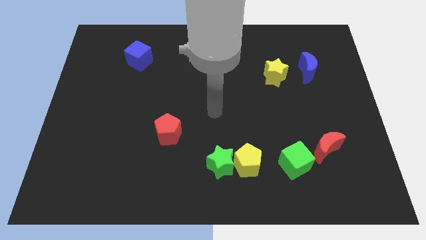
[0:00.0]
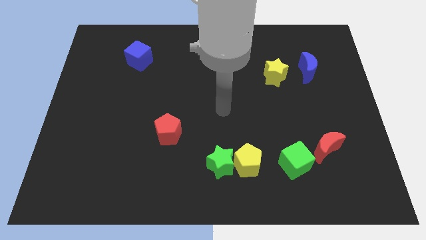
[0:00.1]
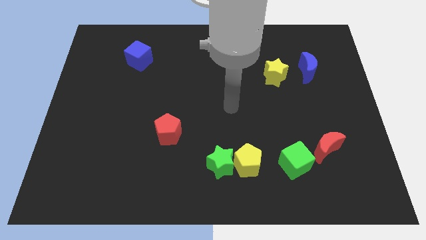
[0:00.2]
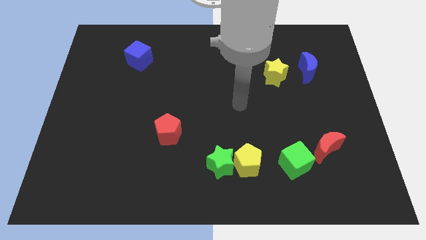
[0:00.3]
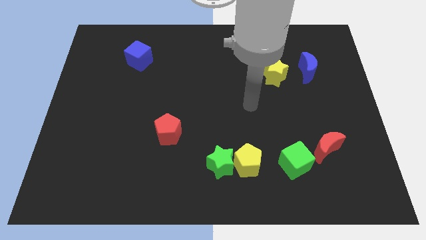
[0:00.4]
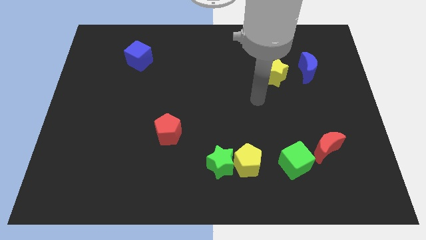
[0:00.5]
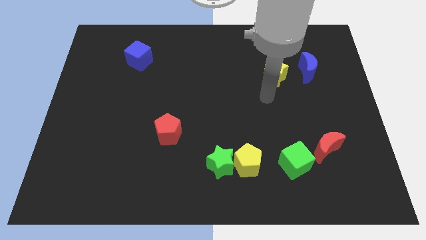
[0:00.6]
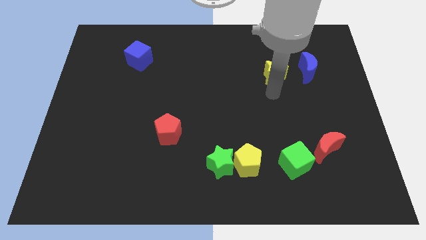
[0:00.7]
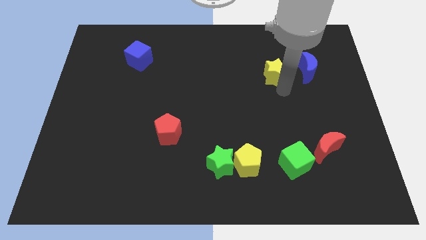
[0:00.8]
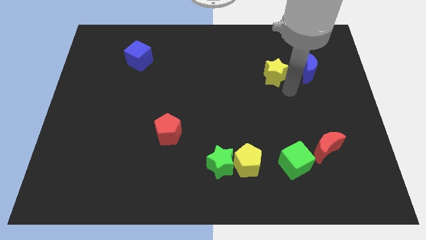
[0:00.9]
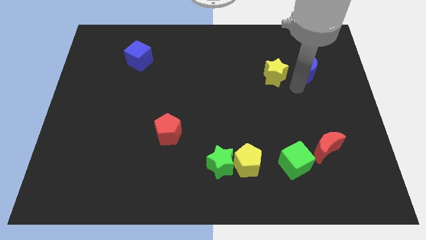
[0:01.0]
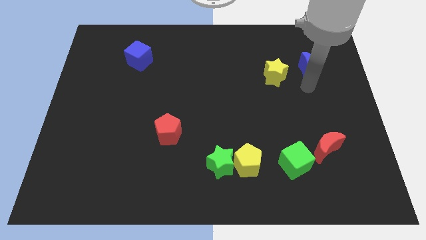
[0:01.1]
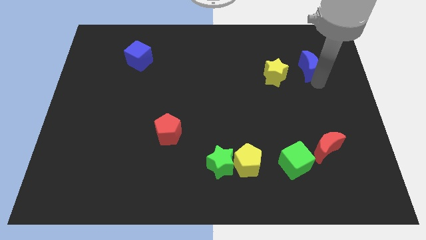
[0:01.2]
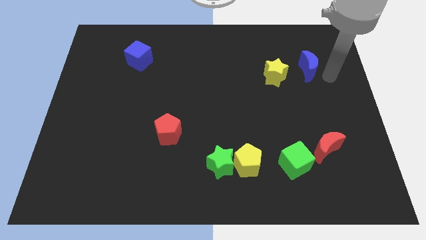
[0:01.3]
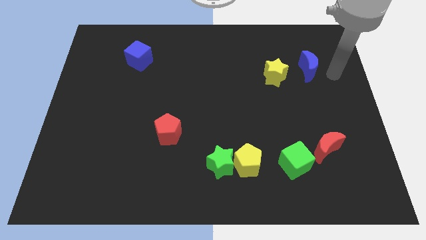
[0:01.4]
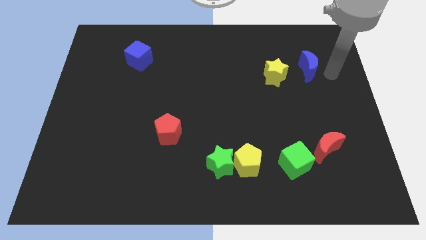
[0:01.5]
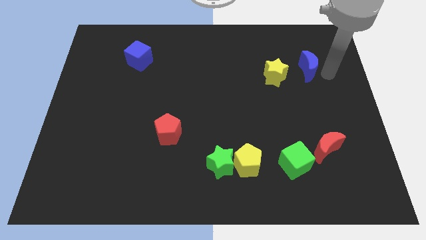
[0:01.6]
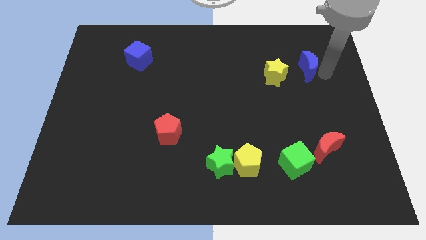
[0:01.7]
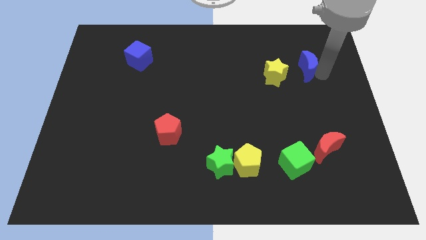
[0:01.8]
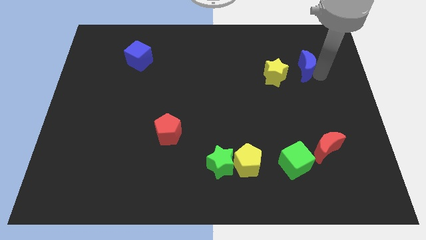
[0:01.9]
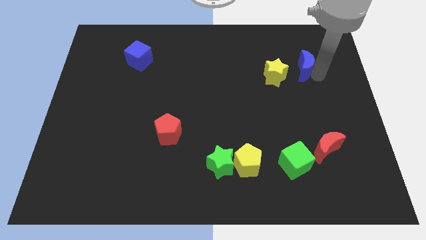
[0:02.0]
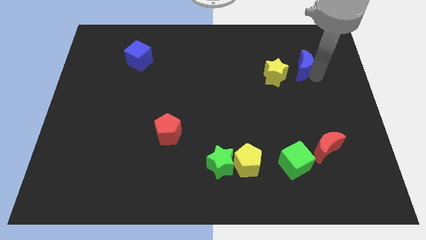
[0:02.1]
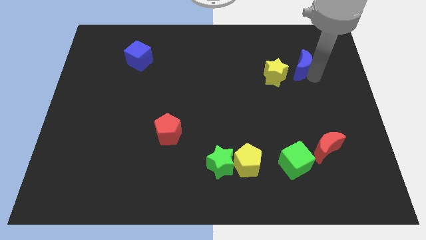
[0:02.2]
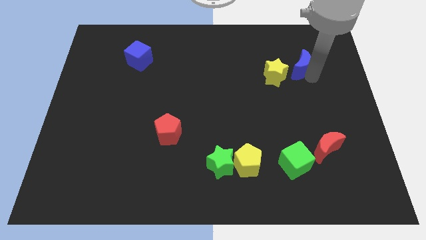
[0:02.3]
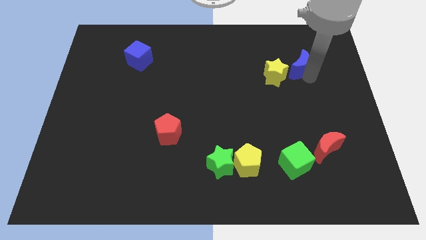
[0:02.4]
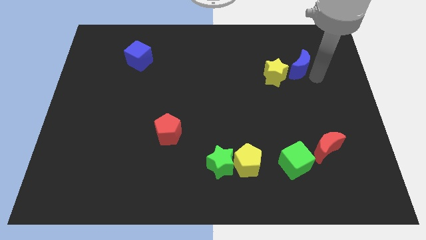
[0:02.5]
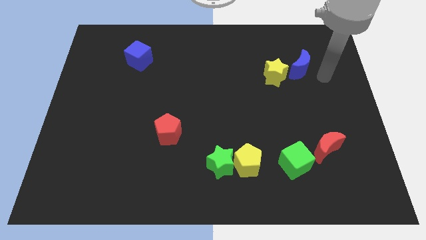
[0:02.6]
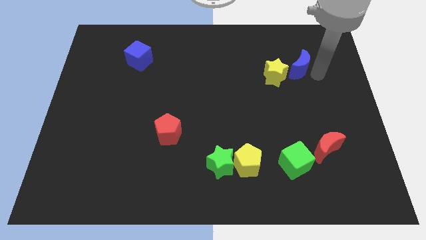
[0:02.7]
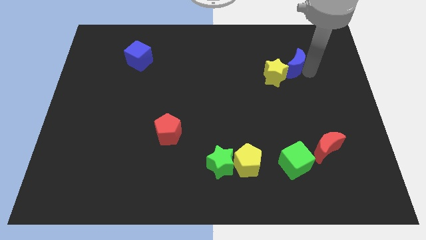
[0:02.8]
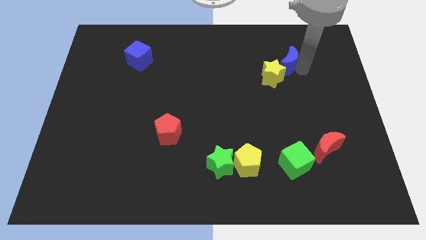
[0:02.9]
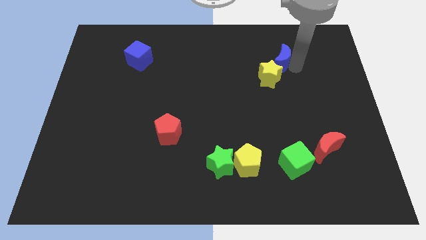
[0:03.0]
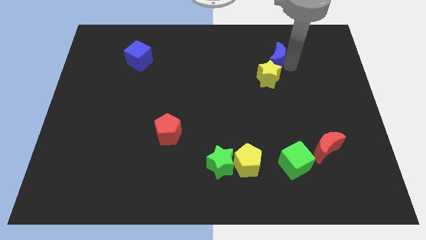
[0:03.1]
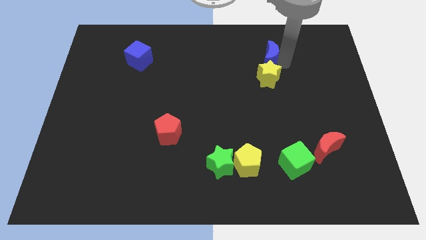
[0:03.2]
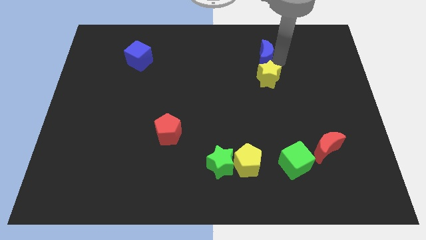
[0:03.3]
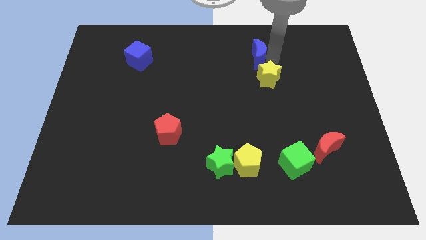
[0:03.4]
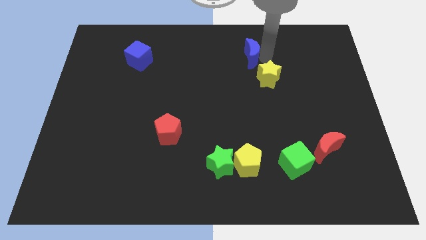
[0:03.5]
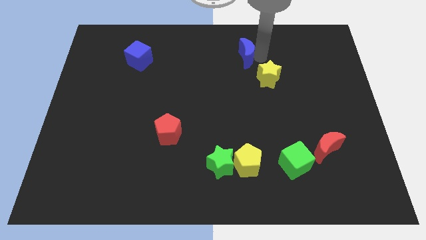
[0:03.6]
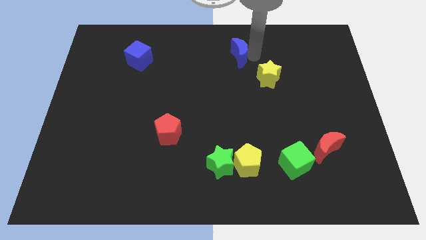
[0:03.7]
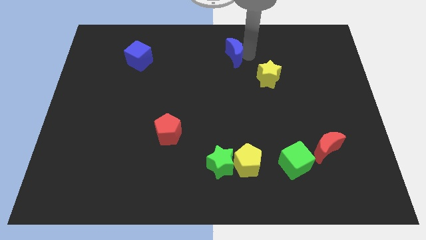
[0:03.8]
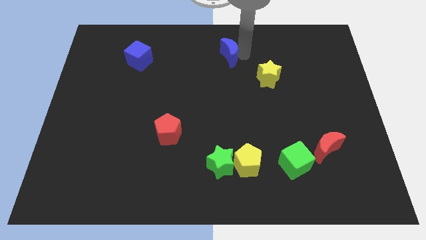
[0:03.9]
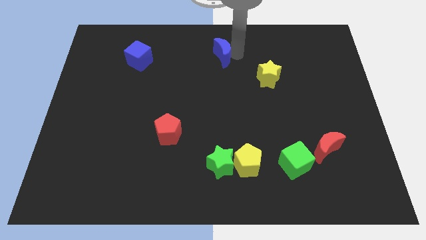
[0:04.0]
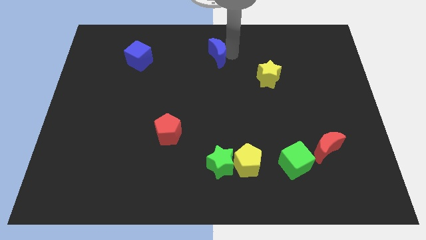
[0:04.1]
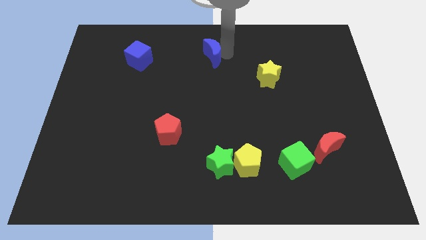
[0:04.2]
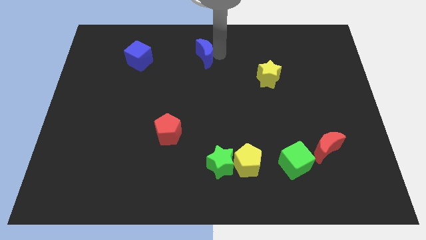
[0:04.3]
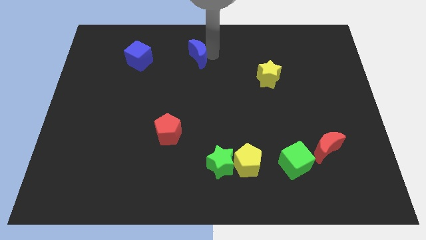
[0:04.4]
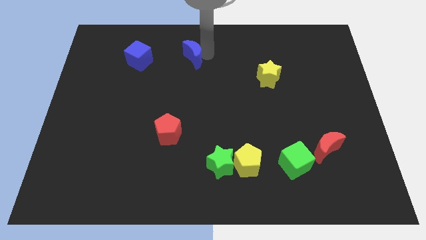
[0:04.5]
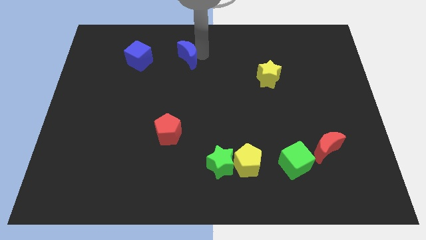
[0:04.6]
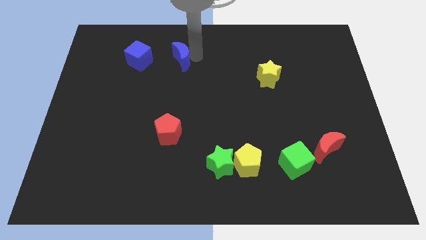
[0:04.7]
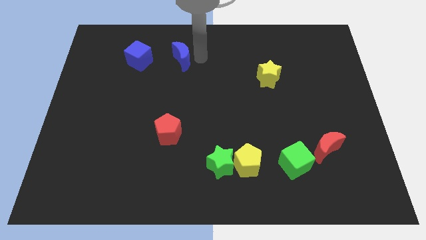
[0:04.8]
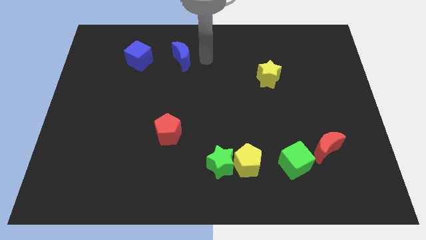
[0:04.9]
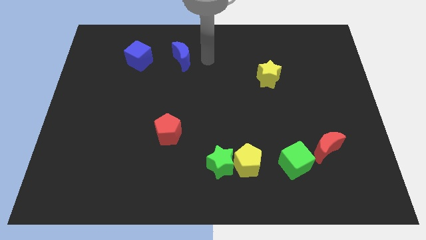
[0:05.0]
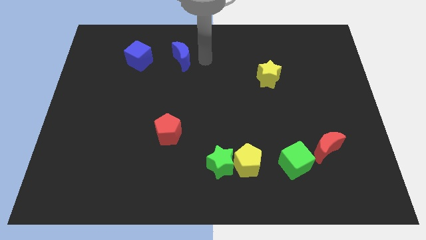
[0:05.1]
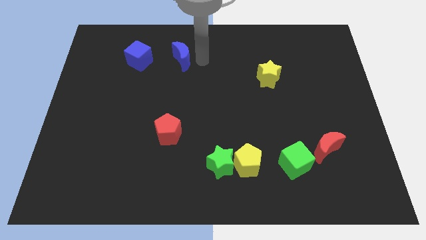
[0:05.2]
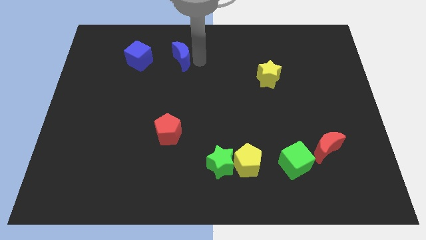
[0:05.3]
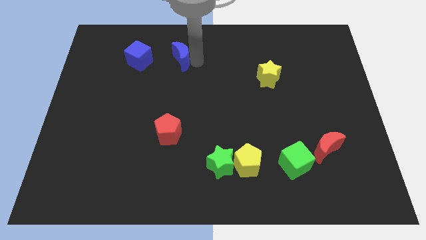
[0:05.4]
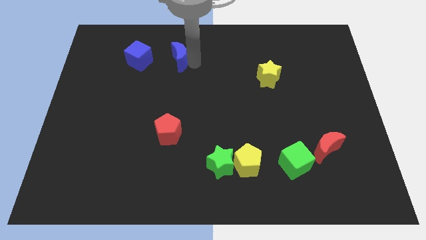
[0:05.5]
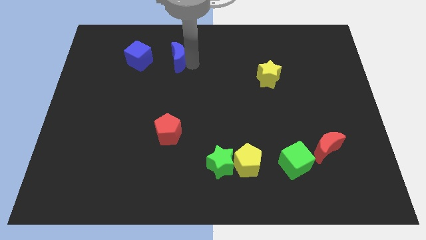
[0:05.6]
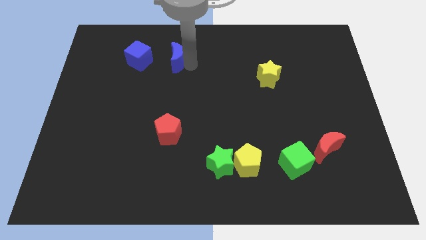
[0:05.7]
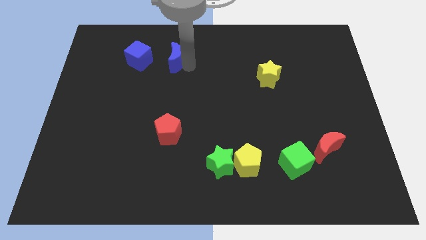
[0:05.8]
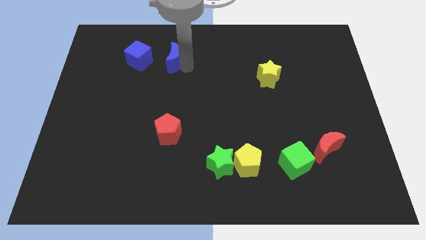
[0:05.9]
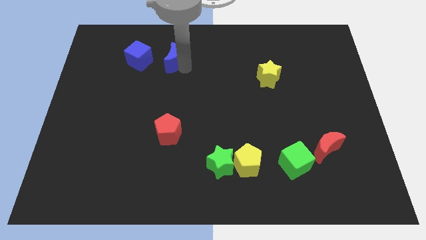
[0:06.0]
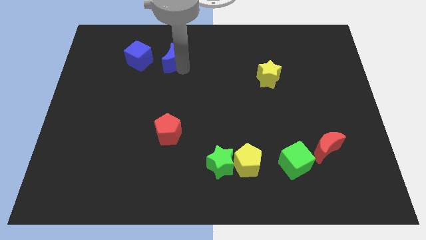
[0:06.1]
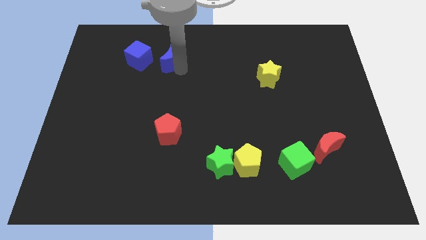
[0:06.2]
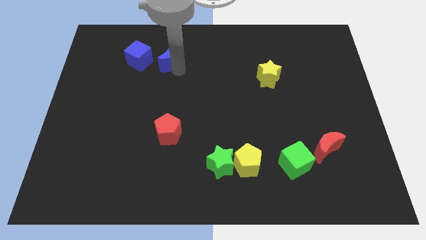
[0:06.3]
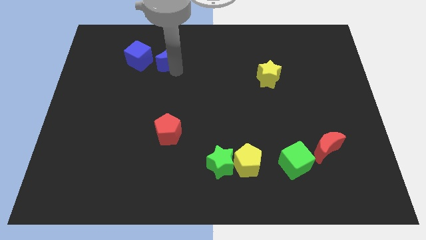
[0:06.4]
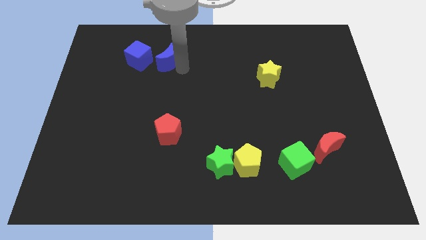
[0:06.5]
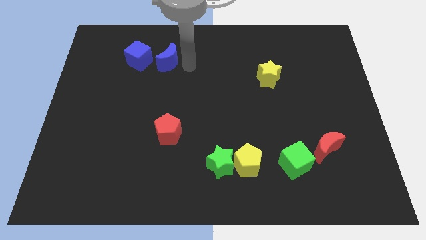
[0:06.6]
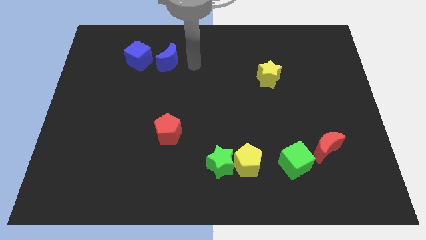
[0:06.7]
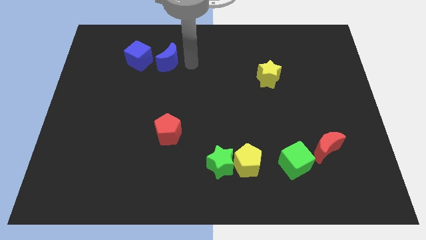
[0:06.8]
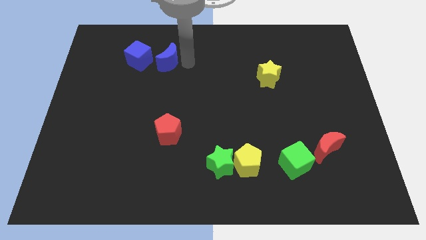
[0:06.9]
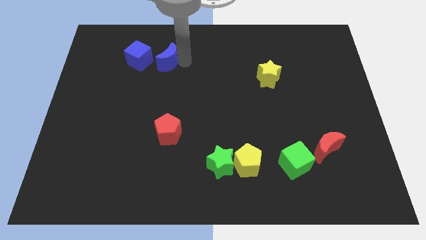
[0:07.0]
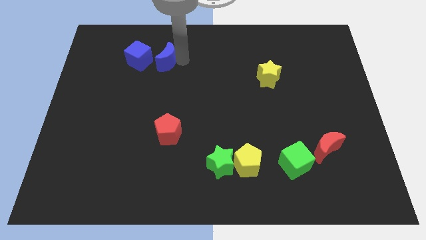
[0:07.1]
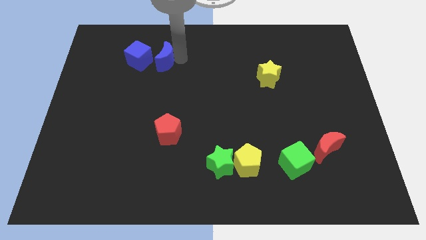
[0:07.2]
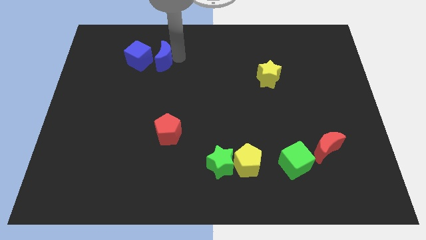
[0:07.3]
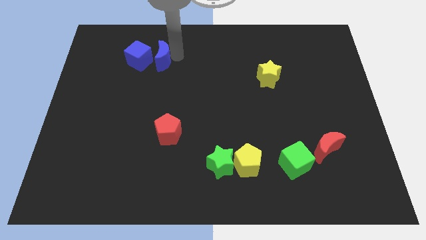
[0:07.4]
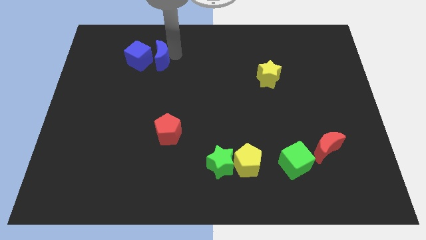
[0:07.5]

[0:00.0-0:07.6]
put the blue moon next to the blue cube

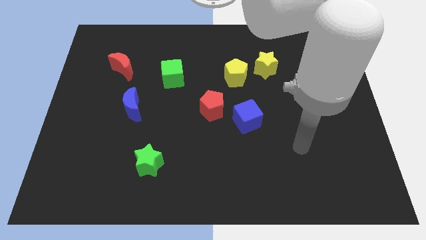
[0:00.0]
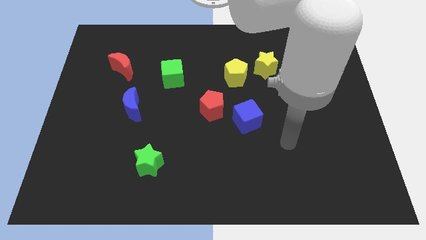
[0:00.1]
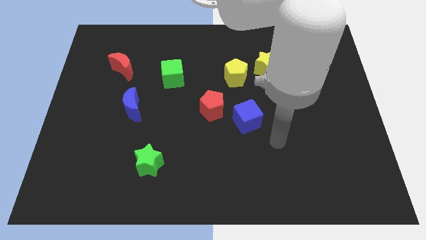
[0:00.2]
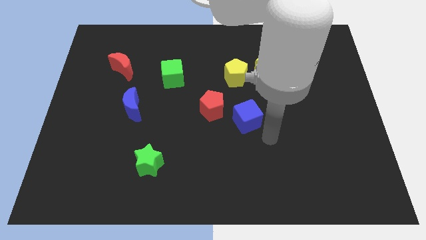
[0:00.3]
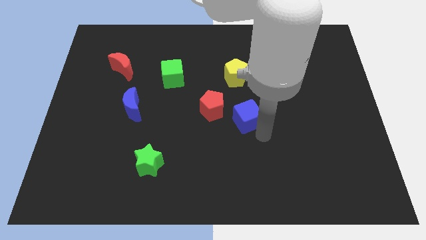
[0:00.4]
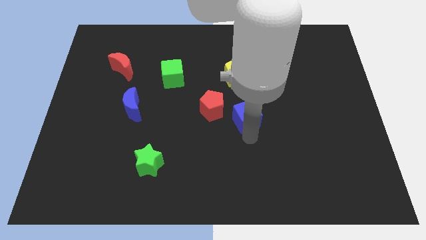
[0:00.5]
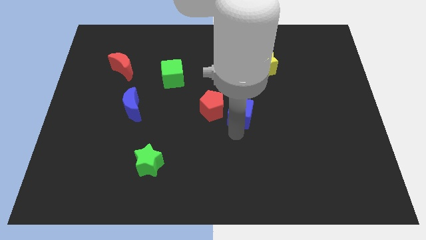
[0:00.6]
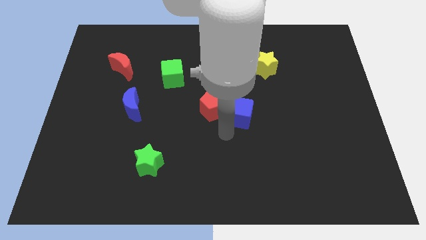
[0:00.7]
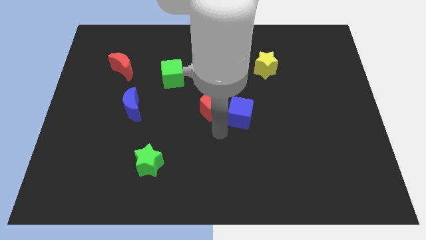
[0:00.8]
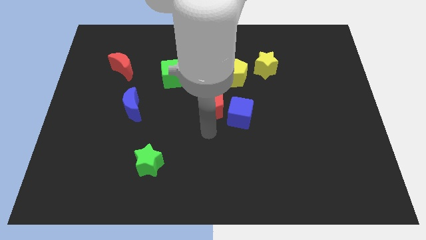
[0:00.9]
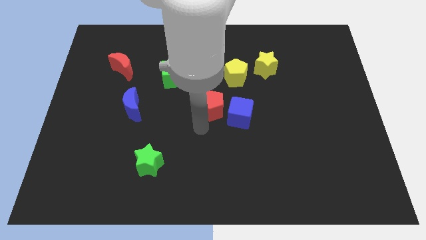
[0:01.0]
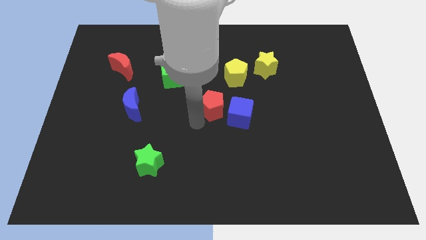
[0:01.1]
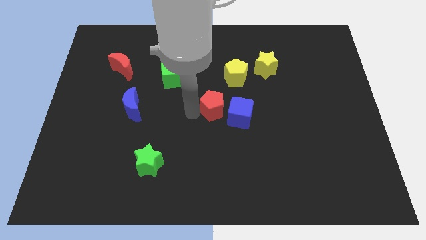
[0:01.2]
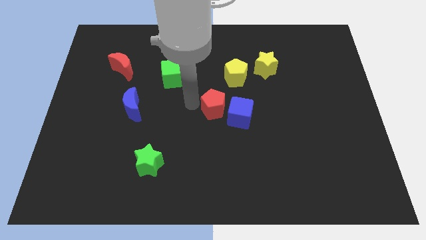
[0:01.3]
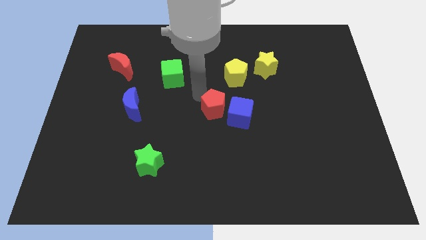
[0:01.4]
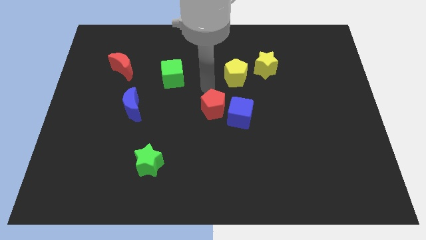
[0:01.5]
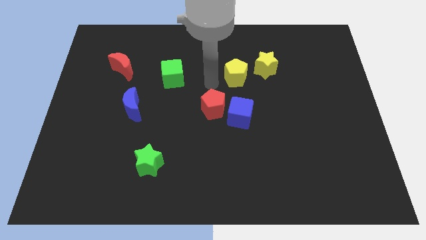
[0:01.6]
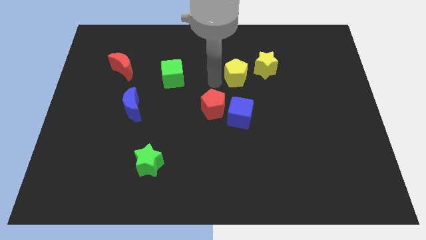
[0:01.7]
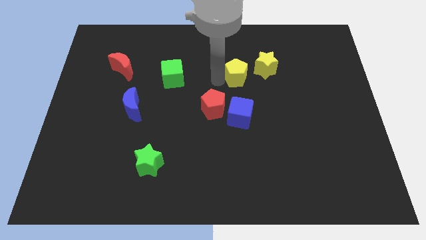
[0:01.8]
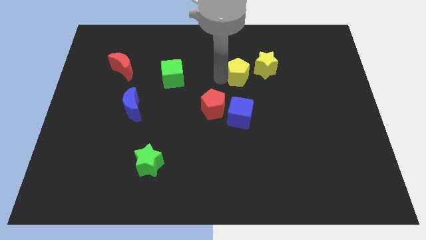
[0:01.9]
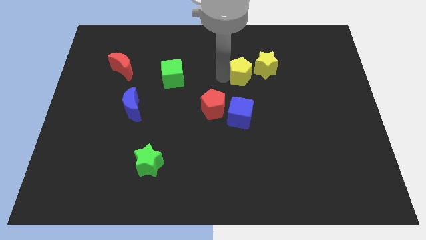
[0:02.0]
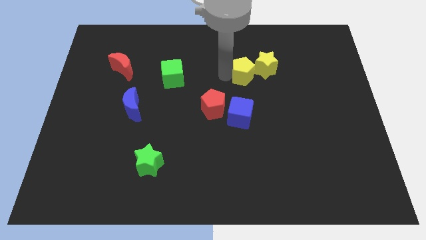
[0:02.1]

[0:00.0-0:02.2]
move the yellow pentagon close to the yellow star
